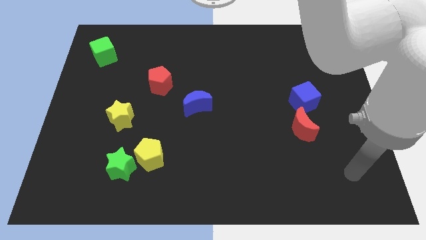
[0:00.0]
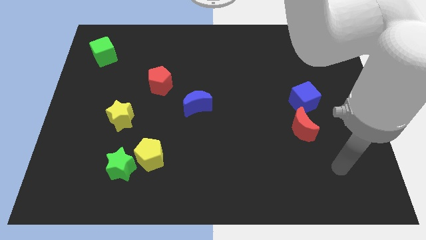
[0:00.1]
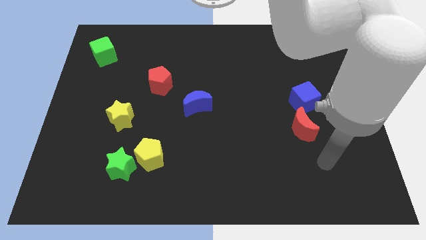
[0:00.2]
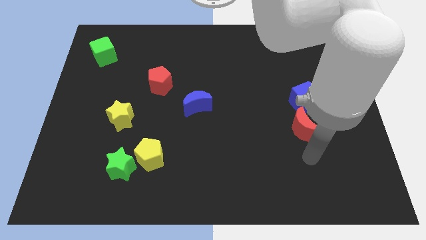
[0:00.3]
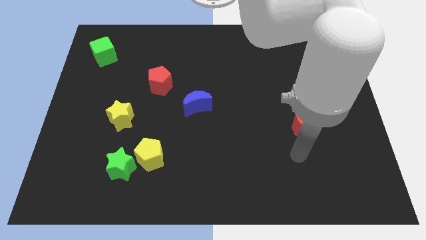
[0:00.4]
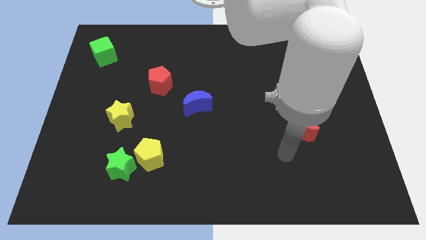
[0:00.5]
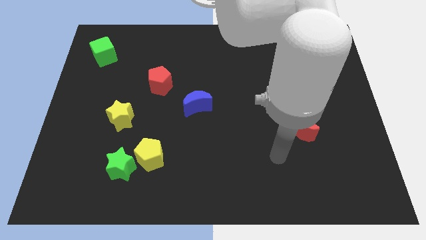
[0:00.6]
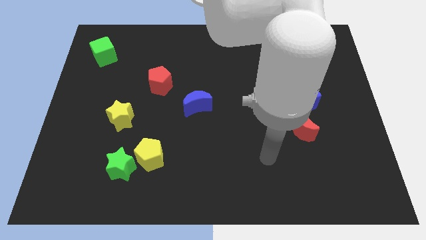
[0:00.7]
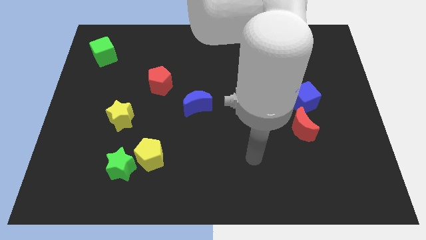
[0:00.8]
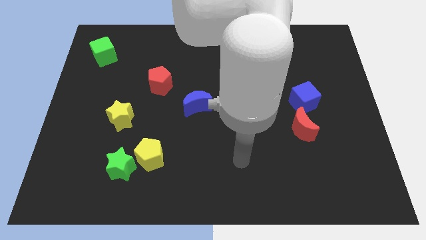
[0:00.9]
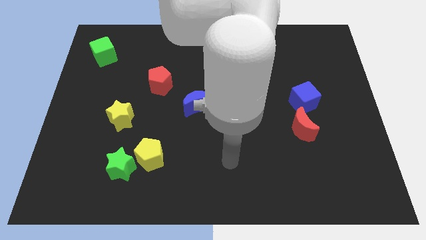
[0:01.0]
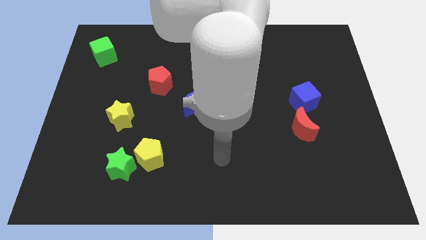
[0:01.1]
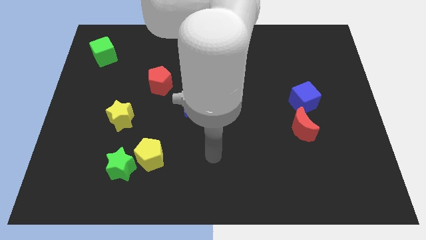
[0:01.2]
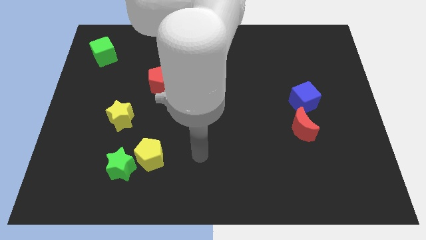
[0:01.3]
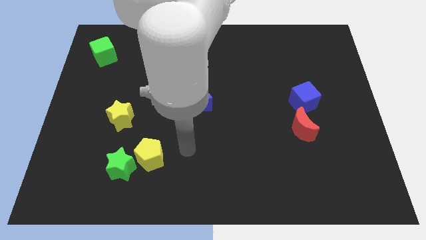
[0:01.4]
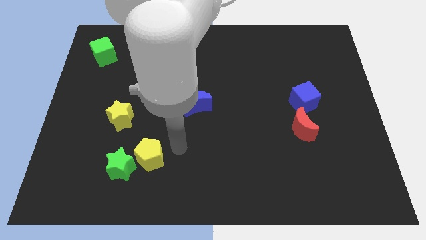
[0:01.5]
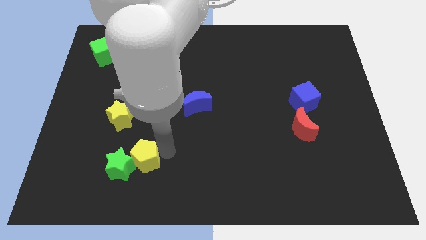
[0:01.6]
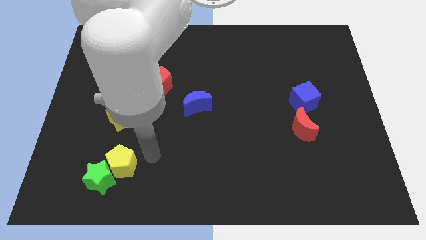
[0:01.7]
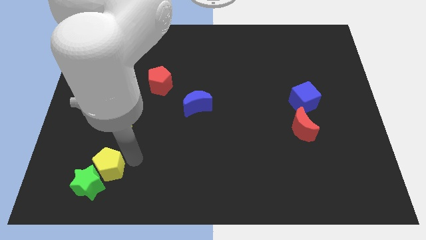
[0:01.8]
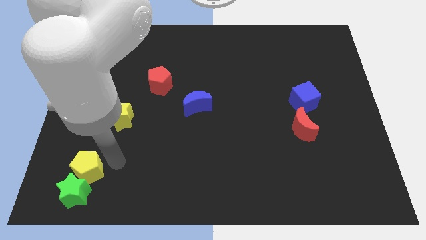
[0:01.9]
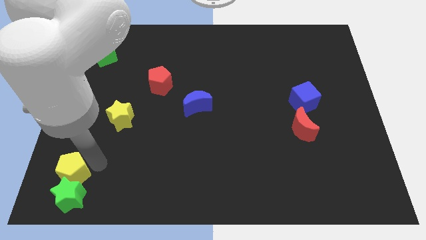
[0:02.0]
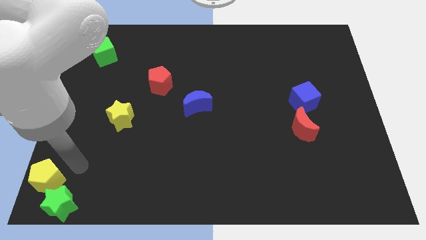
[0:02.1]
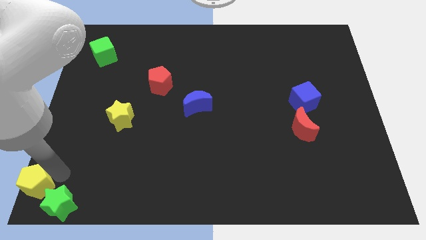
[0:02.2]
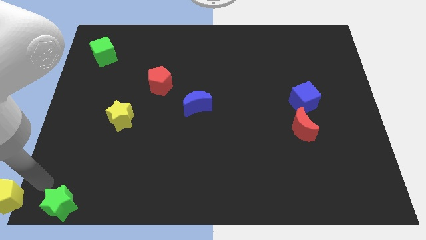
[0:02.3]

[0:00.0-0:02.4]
separate the green star from the yellow pentagon

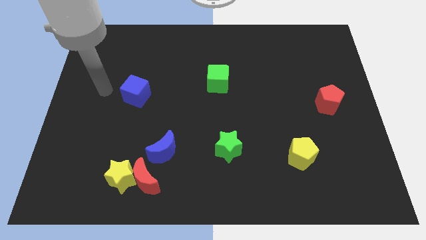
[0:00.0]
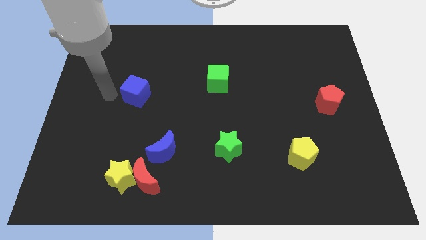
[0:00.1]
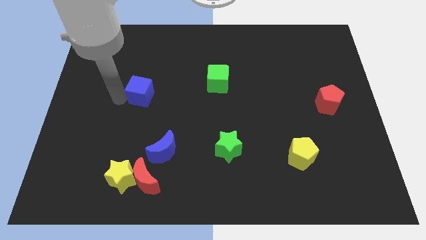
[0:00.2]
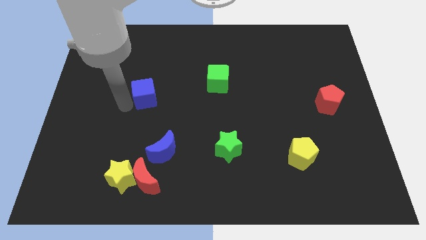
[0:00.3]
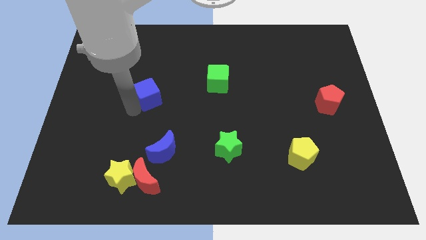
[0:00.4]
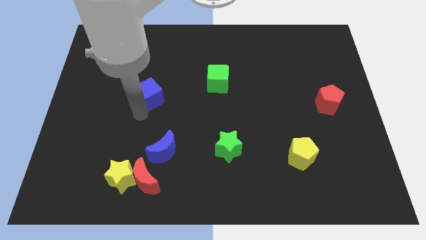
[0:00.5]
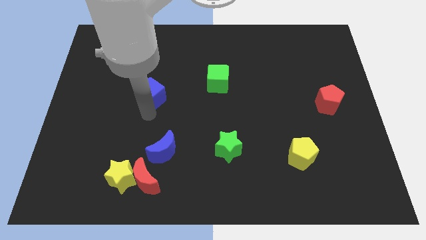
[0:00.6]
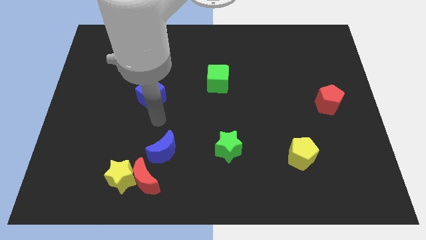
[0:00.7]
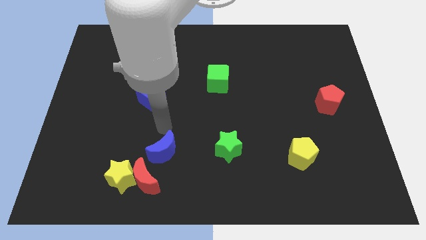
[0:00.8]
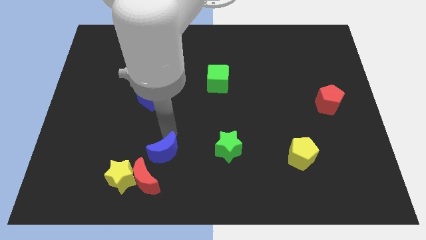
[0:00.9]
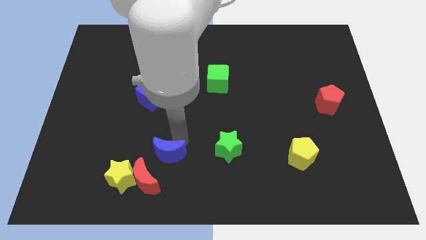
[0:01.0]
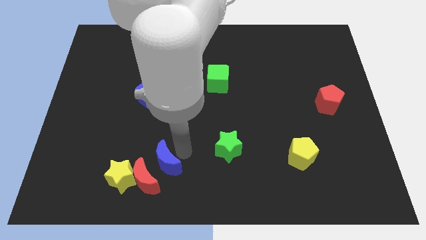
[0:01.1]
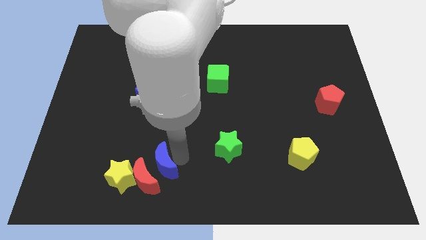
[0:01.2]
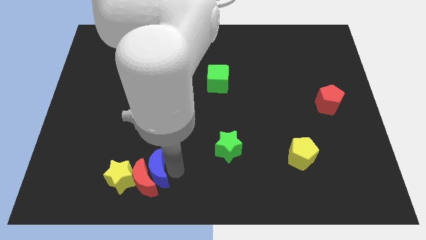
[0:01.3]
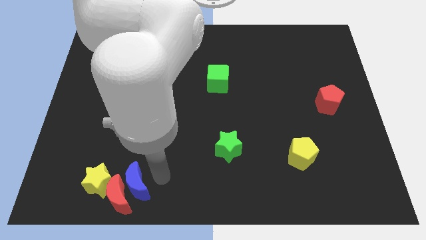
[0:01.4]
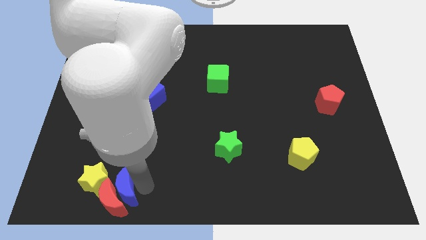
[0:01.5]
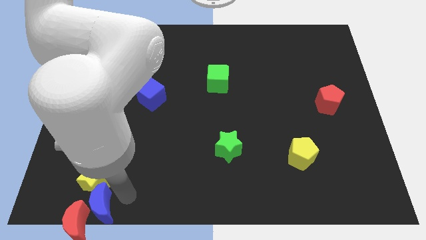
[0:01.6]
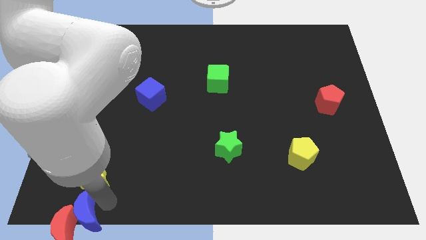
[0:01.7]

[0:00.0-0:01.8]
pull the yellow star apart from the red moon

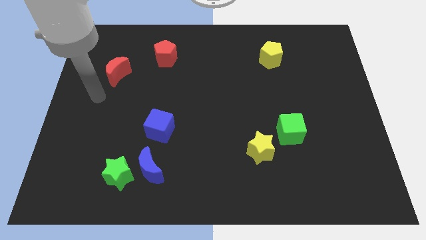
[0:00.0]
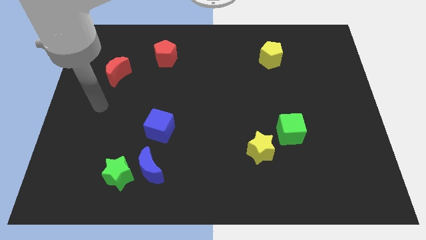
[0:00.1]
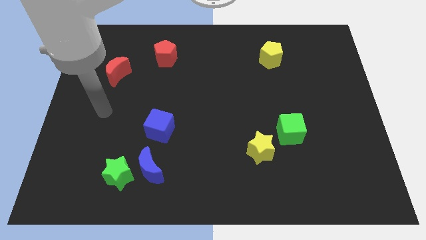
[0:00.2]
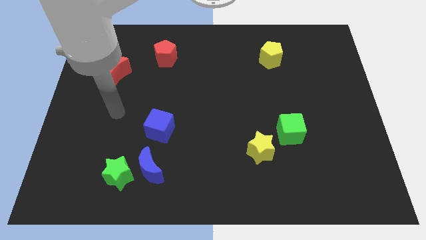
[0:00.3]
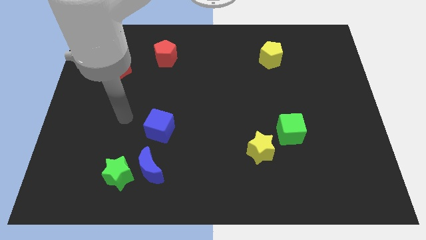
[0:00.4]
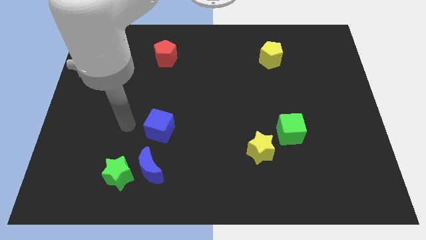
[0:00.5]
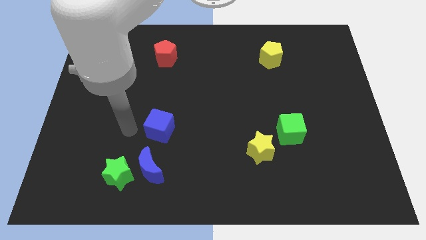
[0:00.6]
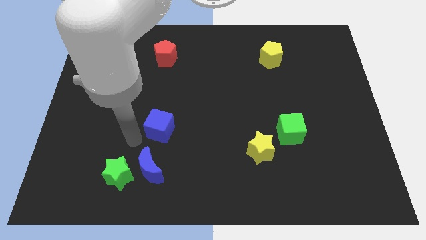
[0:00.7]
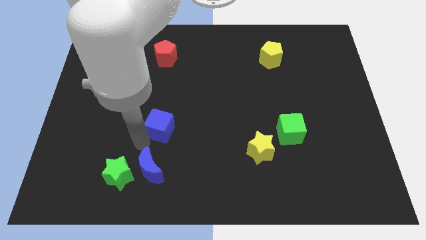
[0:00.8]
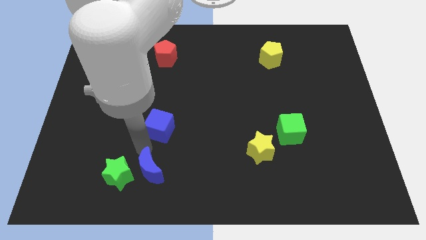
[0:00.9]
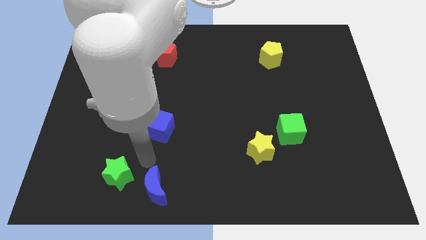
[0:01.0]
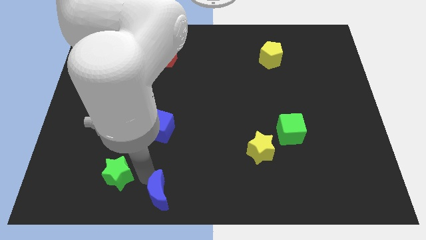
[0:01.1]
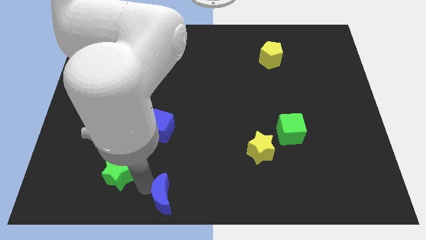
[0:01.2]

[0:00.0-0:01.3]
pull the green star apart from the blue moon

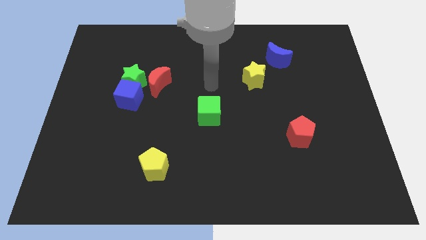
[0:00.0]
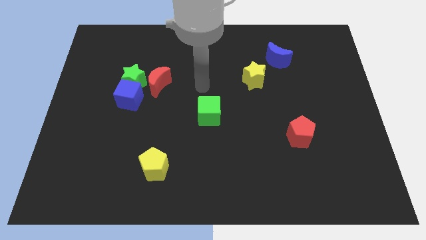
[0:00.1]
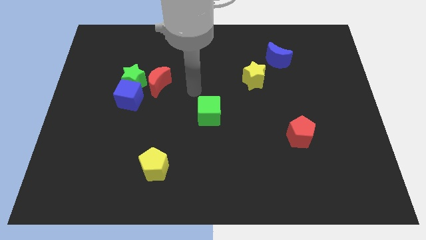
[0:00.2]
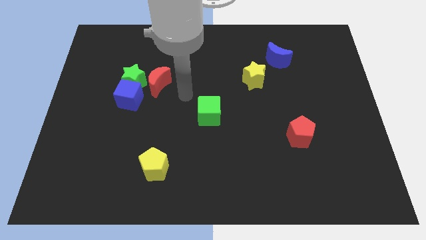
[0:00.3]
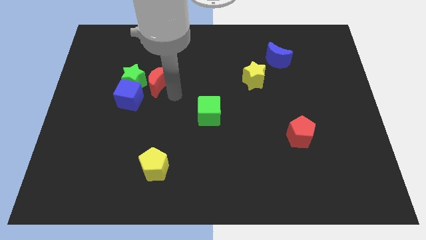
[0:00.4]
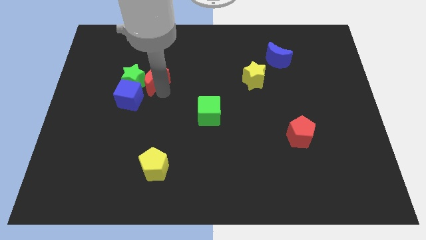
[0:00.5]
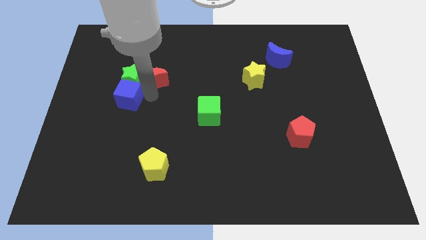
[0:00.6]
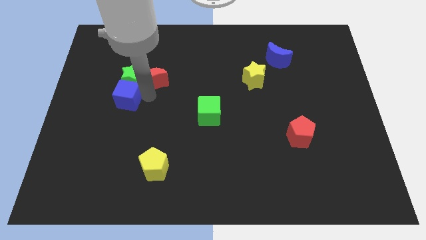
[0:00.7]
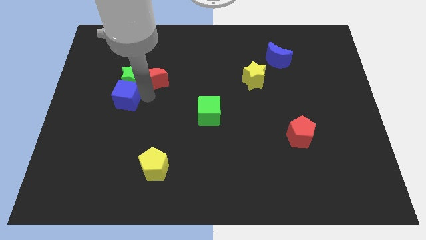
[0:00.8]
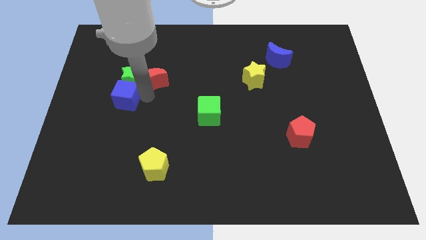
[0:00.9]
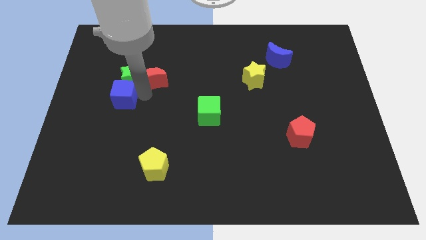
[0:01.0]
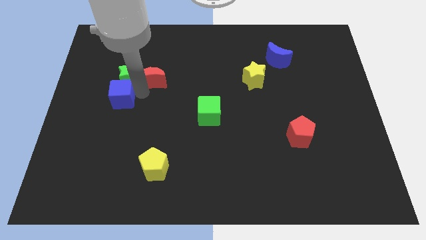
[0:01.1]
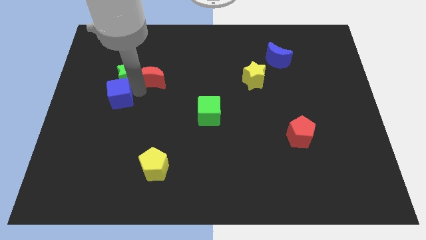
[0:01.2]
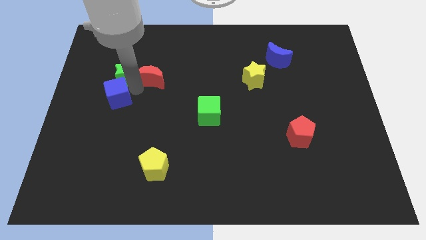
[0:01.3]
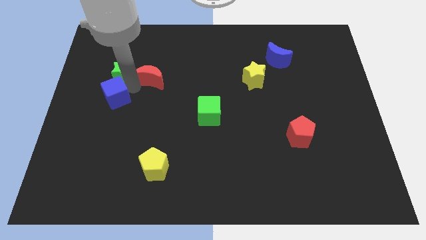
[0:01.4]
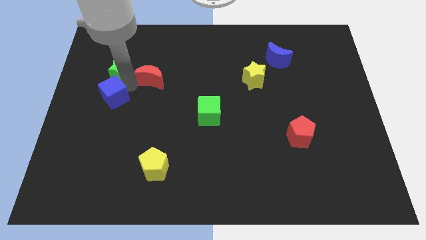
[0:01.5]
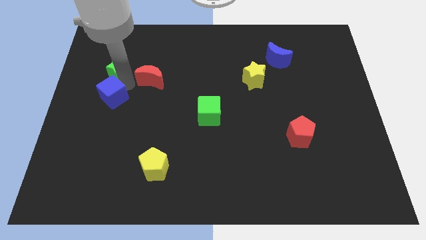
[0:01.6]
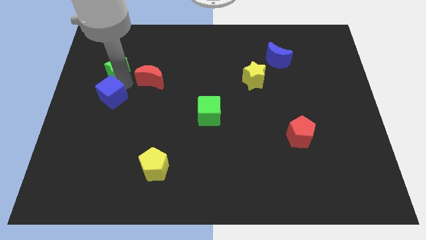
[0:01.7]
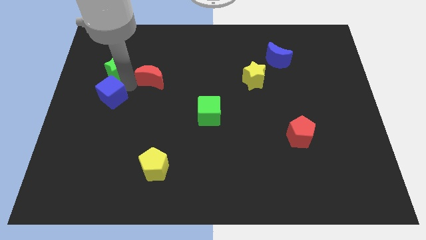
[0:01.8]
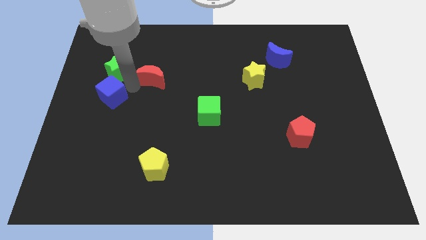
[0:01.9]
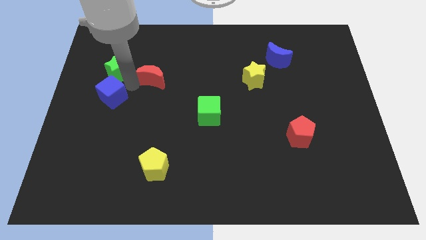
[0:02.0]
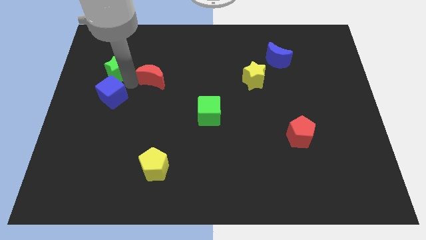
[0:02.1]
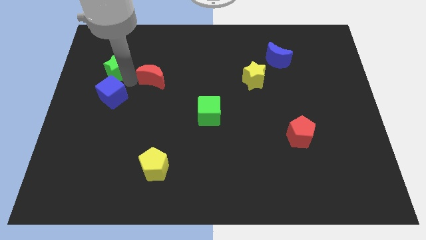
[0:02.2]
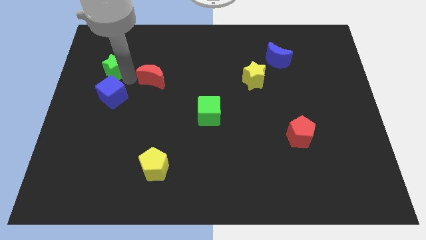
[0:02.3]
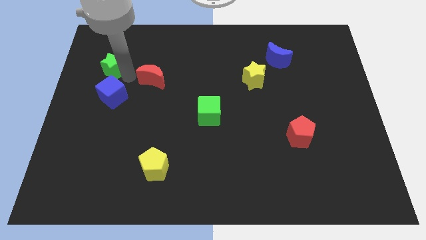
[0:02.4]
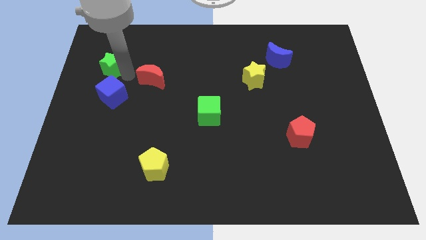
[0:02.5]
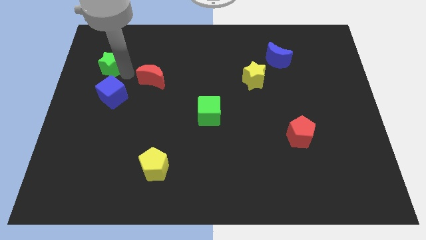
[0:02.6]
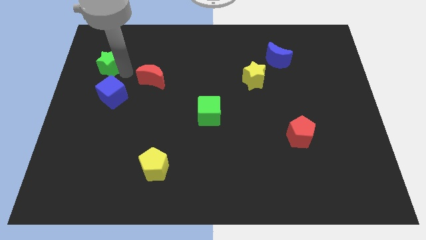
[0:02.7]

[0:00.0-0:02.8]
pull the green star apart from the blue cube and red moon

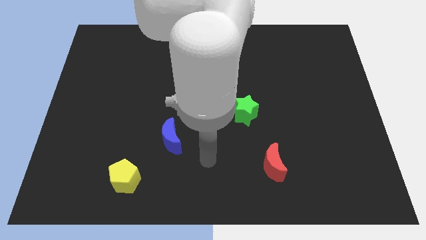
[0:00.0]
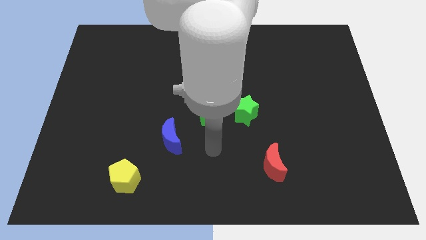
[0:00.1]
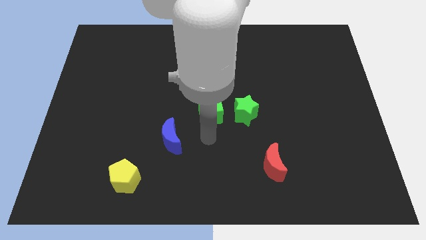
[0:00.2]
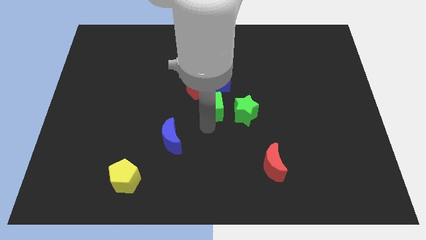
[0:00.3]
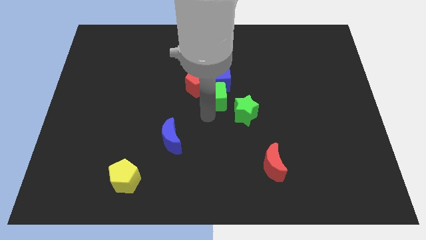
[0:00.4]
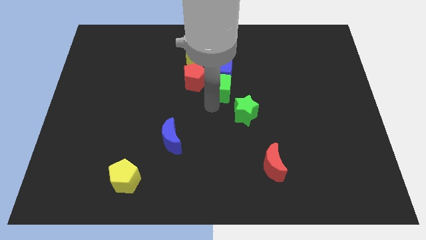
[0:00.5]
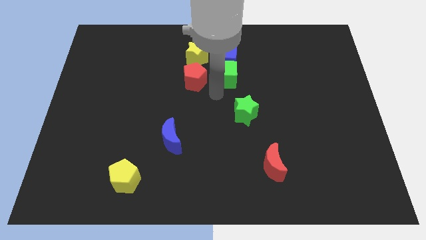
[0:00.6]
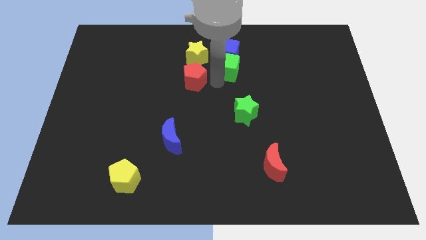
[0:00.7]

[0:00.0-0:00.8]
separate the red pentagon from the blue cube and green cube

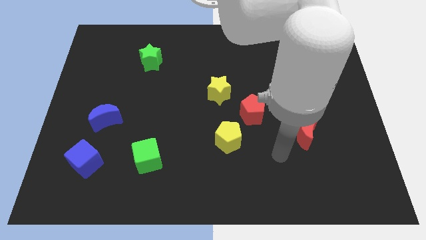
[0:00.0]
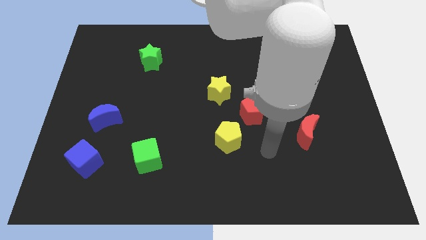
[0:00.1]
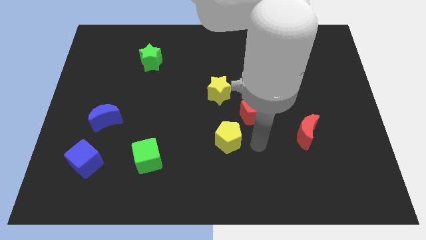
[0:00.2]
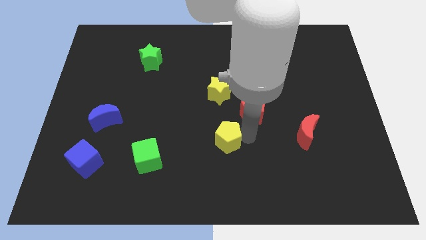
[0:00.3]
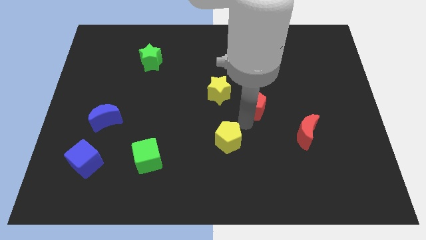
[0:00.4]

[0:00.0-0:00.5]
separate the yellow pentagon from the red pentagon
